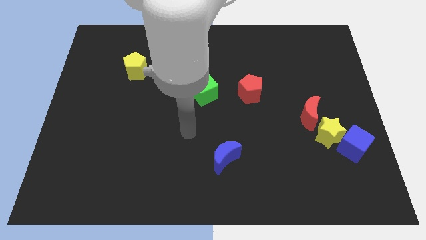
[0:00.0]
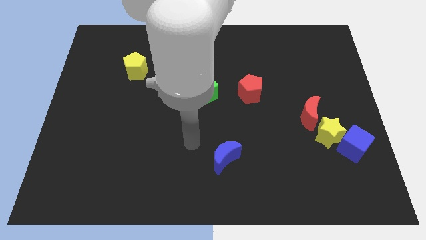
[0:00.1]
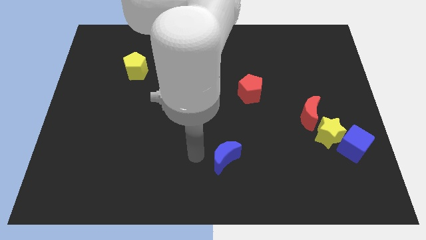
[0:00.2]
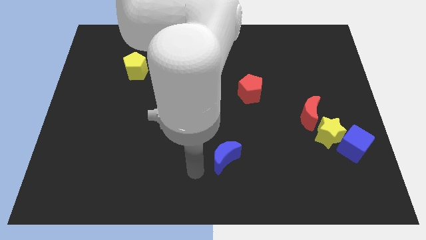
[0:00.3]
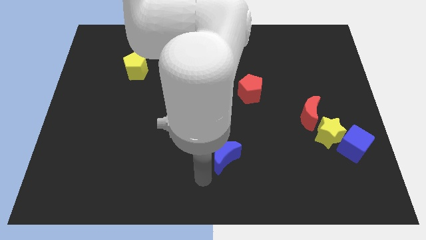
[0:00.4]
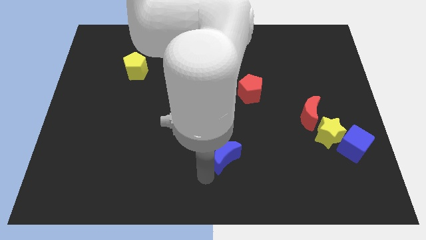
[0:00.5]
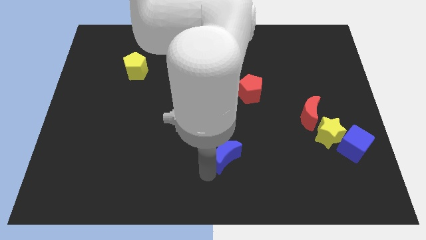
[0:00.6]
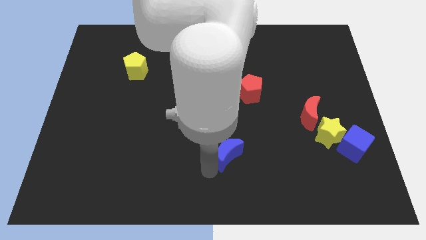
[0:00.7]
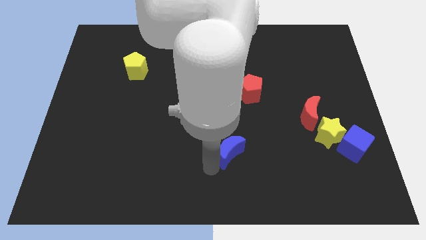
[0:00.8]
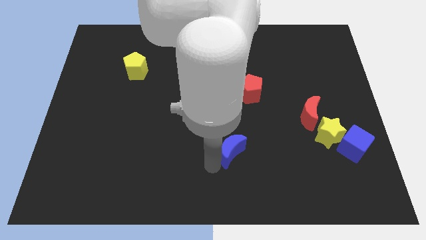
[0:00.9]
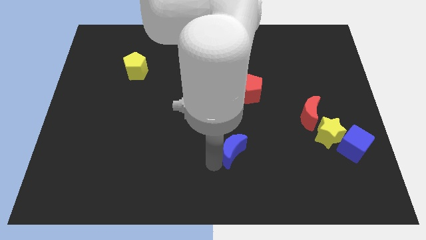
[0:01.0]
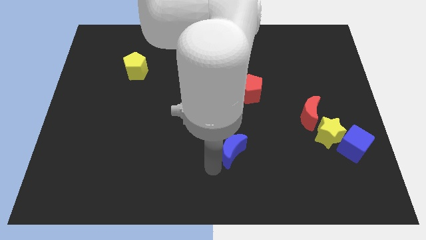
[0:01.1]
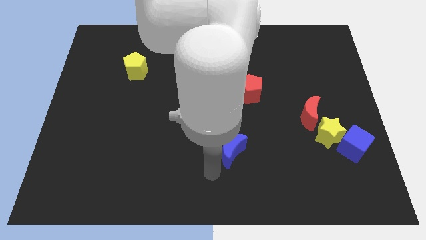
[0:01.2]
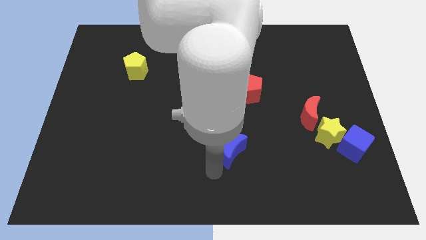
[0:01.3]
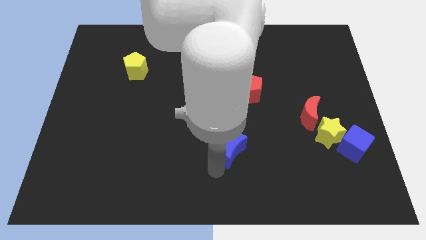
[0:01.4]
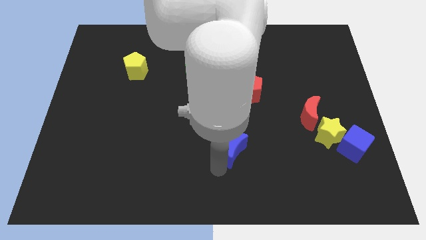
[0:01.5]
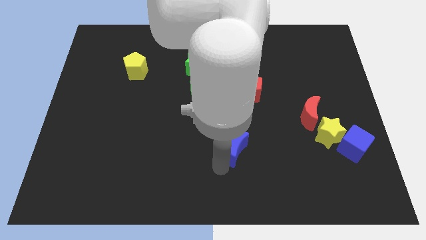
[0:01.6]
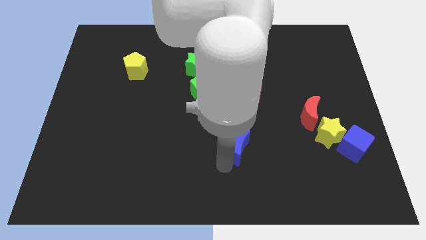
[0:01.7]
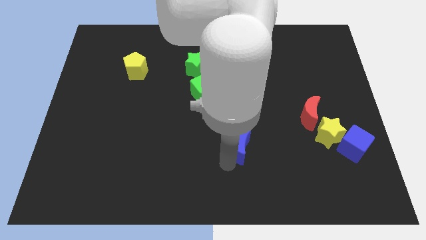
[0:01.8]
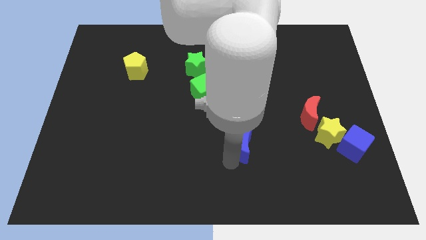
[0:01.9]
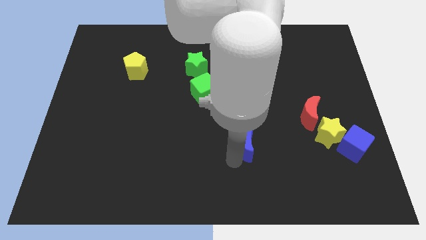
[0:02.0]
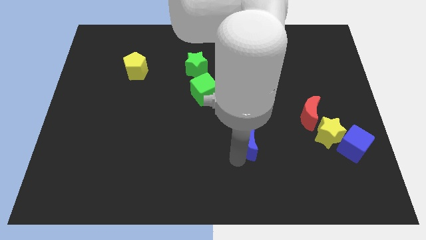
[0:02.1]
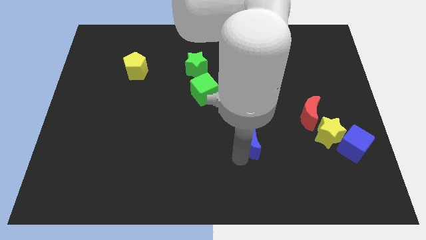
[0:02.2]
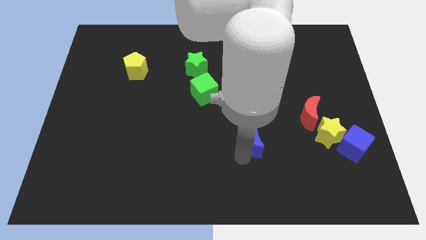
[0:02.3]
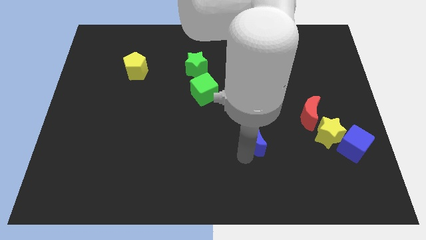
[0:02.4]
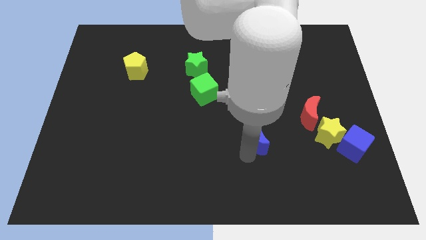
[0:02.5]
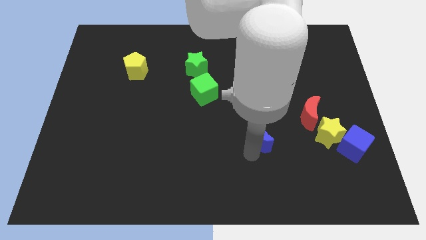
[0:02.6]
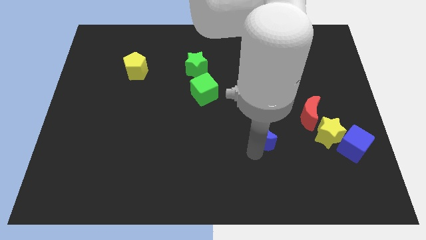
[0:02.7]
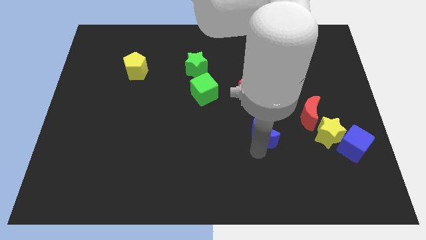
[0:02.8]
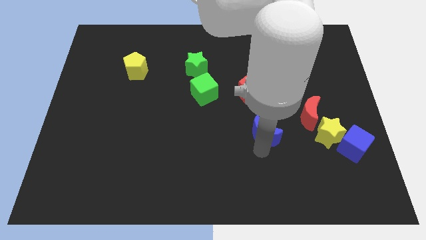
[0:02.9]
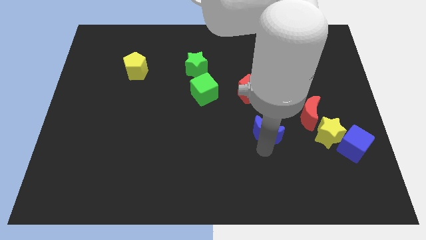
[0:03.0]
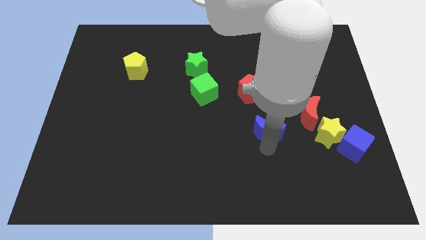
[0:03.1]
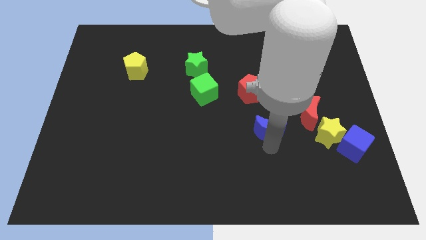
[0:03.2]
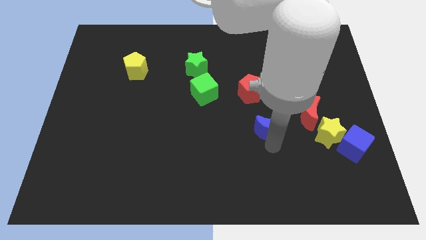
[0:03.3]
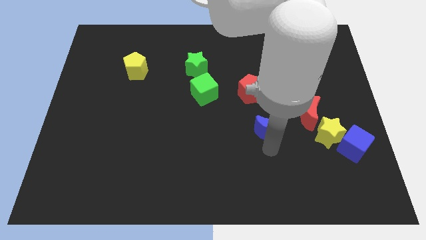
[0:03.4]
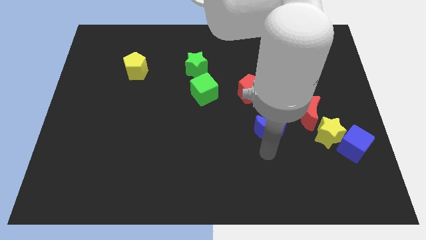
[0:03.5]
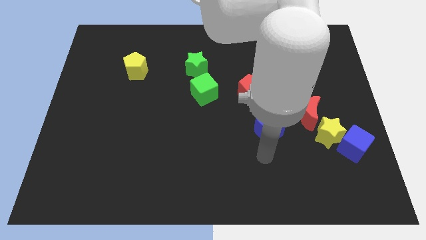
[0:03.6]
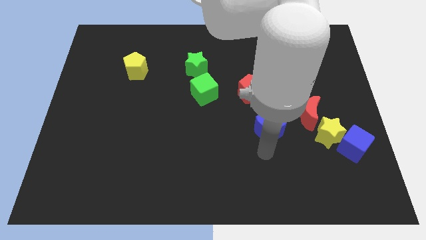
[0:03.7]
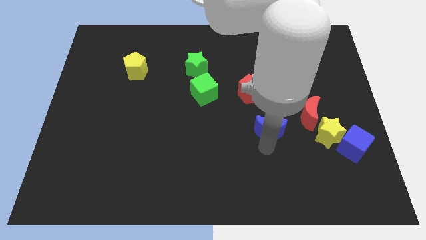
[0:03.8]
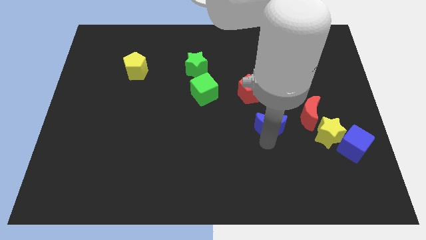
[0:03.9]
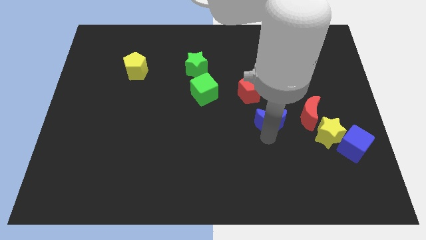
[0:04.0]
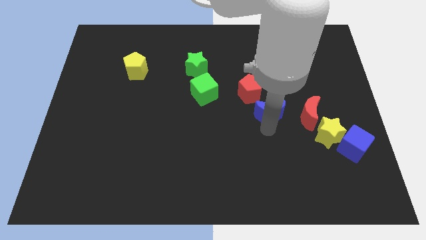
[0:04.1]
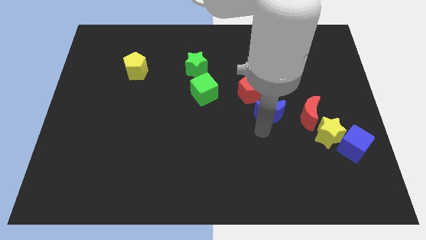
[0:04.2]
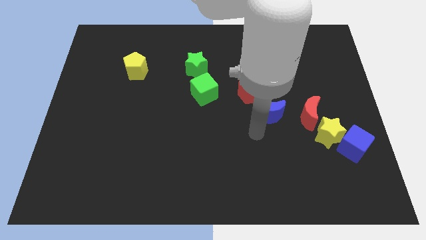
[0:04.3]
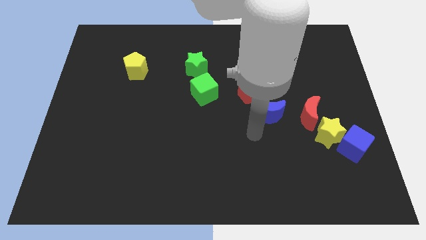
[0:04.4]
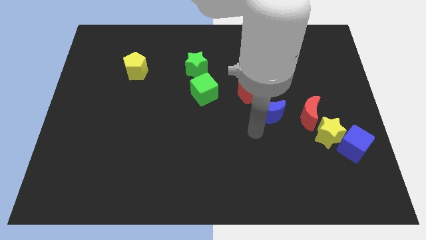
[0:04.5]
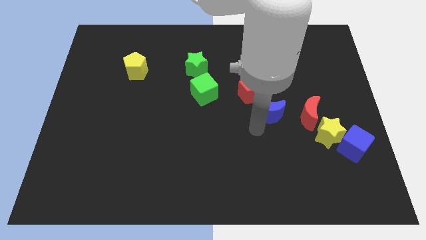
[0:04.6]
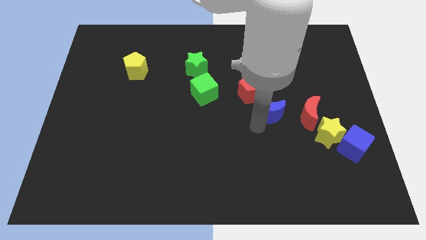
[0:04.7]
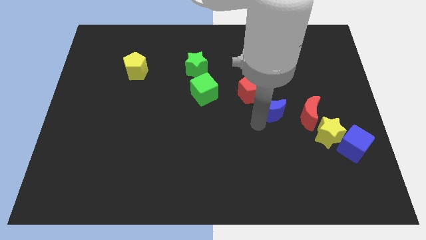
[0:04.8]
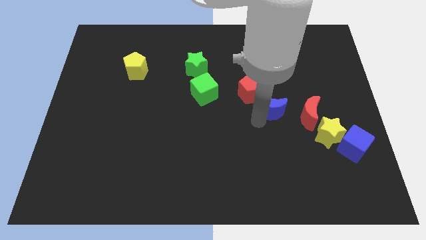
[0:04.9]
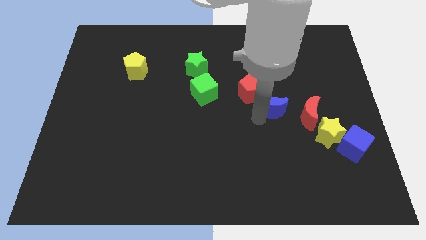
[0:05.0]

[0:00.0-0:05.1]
put the blue moon to the top left of the red moon

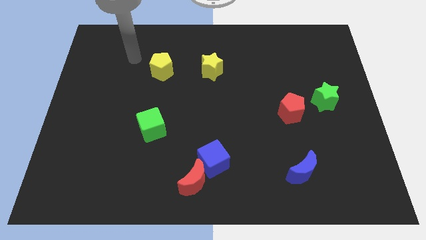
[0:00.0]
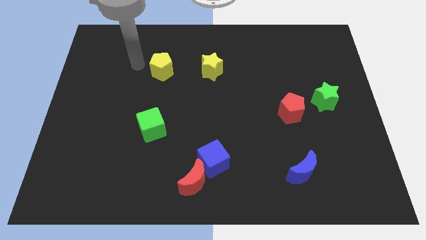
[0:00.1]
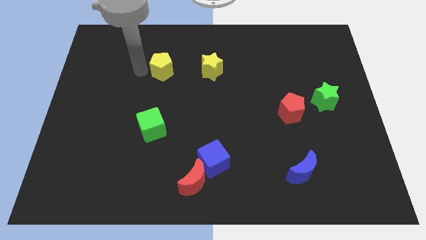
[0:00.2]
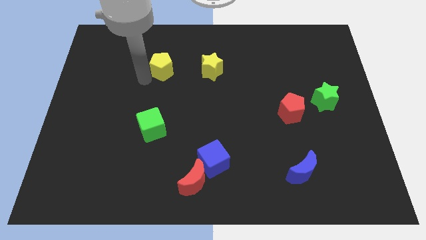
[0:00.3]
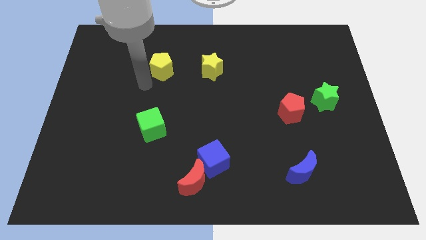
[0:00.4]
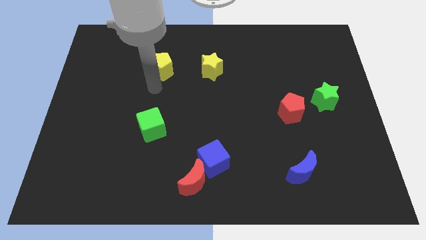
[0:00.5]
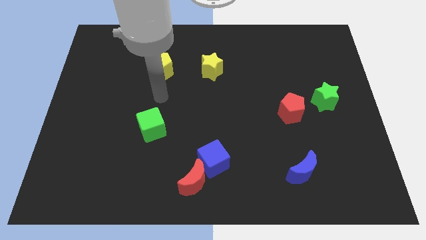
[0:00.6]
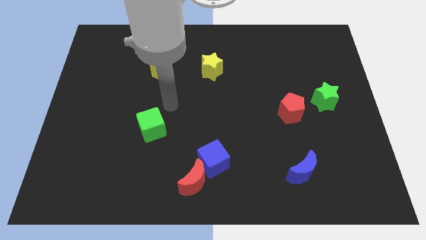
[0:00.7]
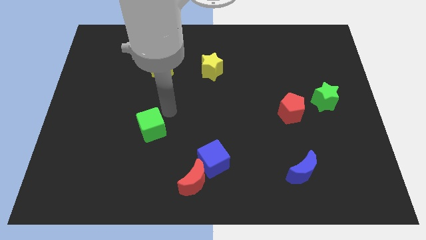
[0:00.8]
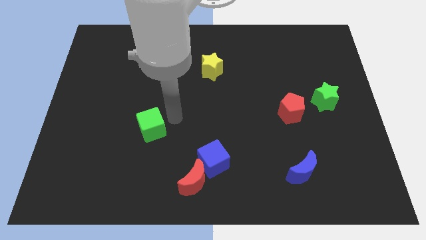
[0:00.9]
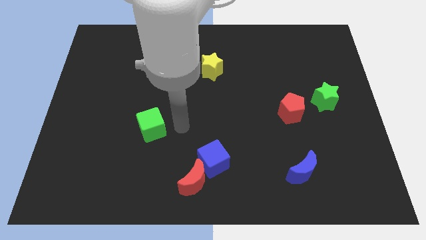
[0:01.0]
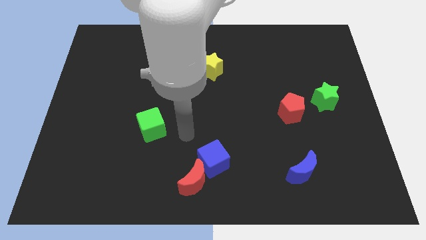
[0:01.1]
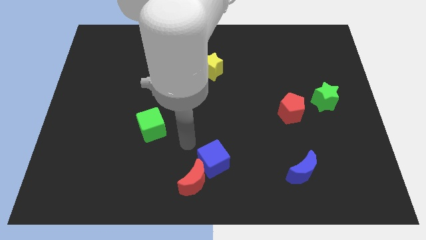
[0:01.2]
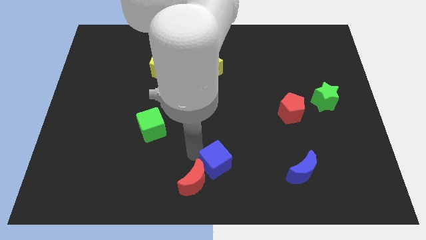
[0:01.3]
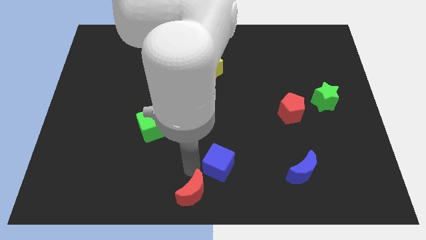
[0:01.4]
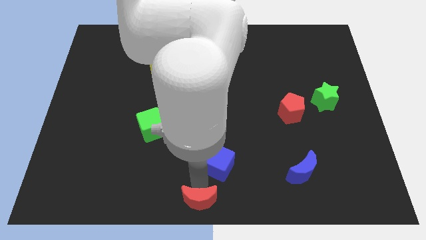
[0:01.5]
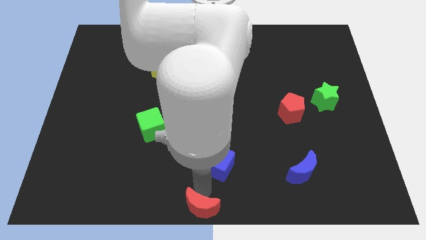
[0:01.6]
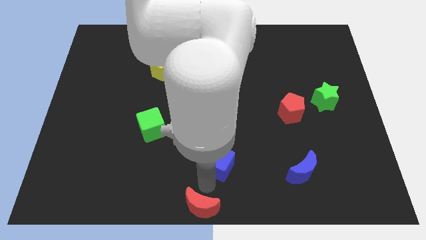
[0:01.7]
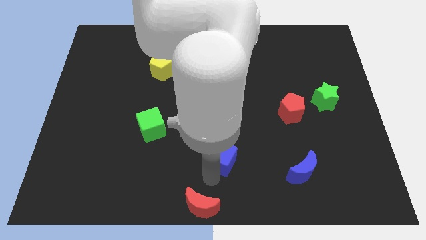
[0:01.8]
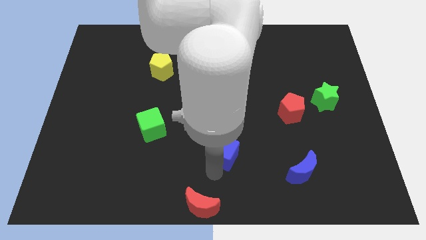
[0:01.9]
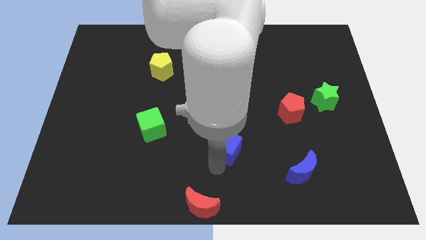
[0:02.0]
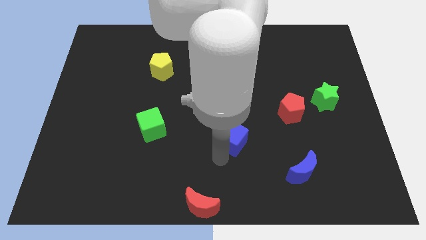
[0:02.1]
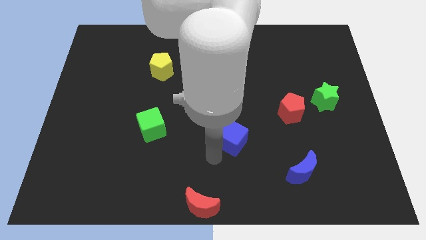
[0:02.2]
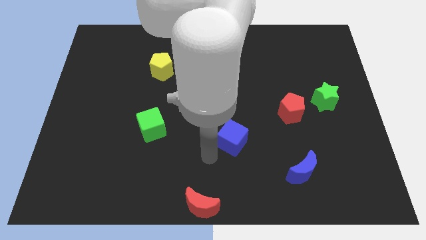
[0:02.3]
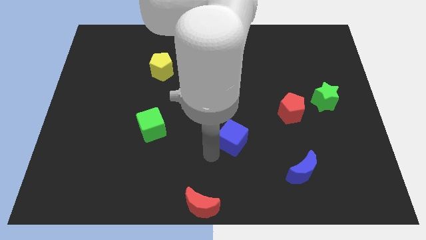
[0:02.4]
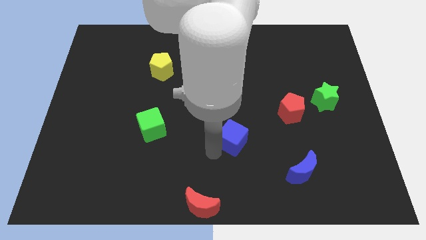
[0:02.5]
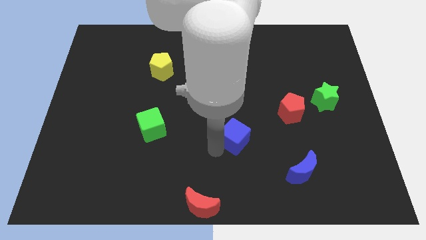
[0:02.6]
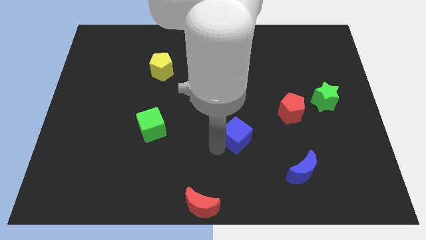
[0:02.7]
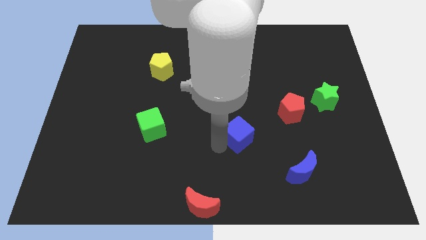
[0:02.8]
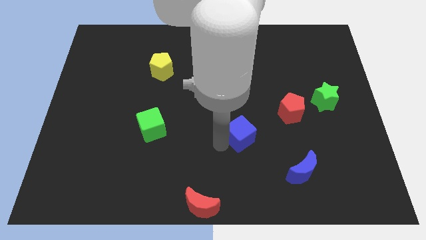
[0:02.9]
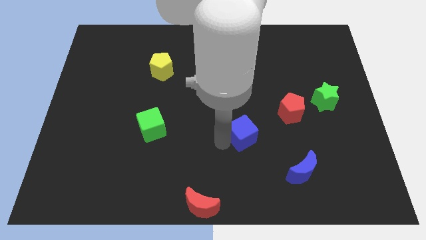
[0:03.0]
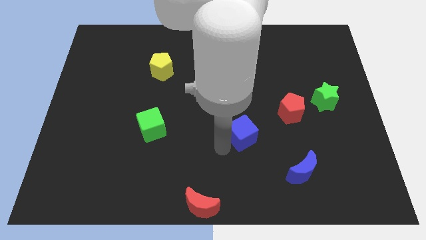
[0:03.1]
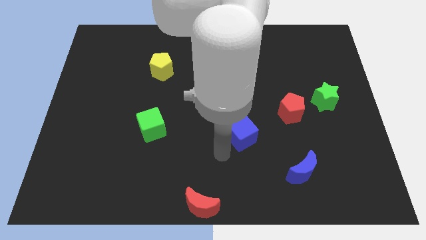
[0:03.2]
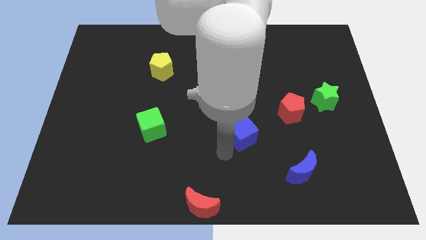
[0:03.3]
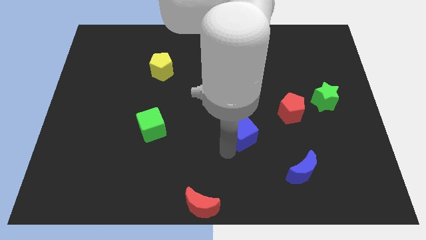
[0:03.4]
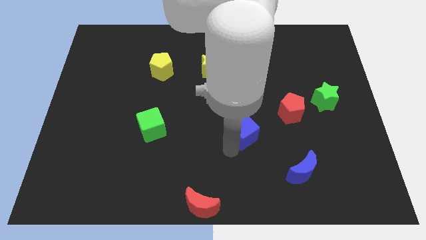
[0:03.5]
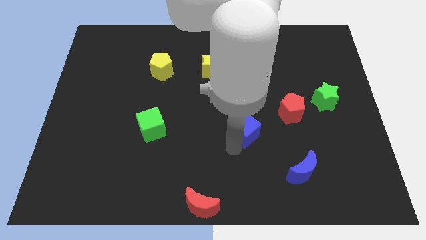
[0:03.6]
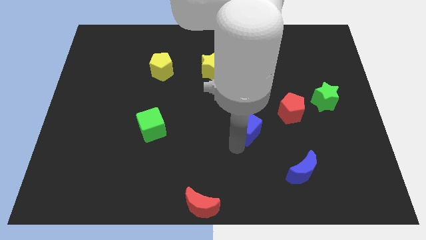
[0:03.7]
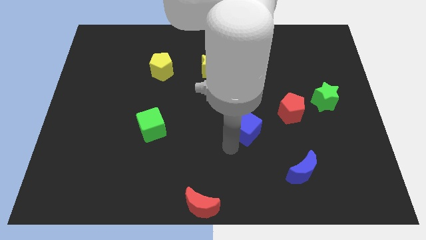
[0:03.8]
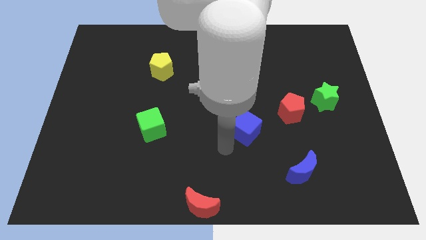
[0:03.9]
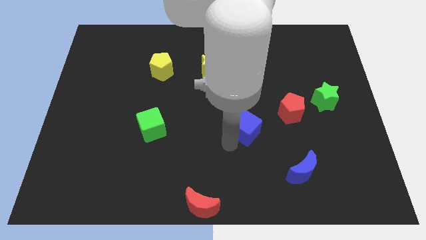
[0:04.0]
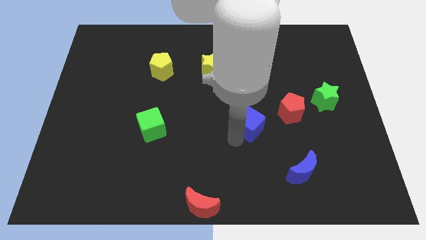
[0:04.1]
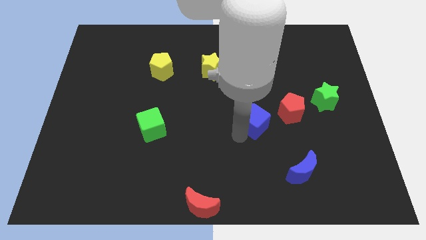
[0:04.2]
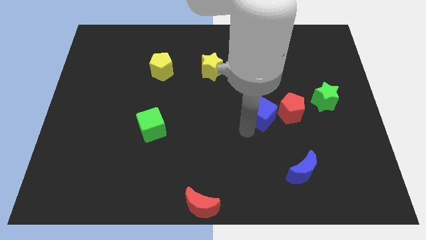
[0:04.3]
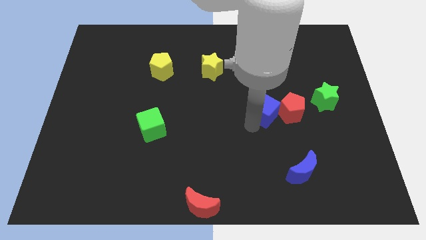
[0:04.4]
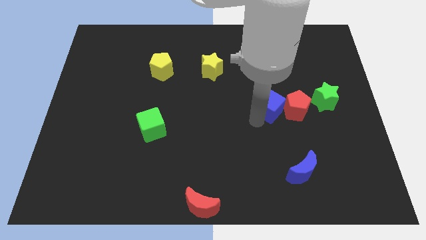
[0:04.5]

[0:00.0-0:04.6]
move the blue cube to the left of the green star
